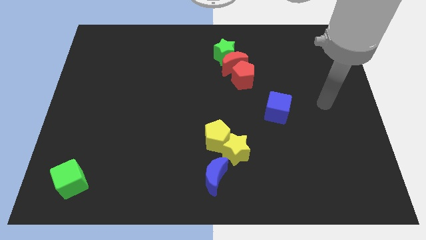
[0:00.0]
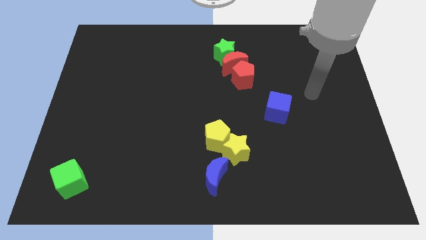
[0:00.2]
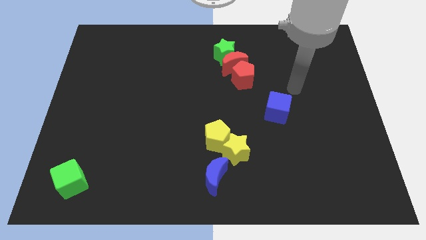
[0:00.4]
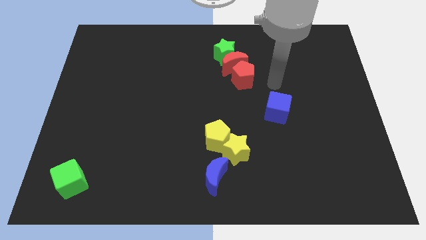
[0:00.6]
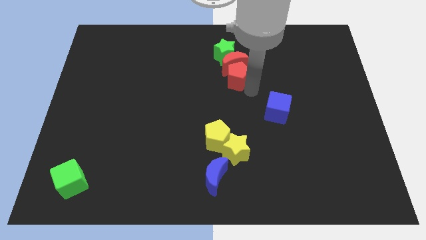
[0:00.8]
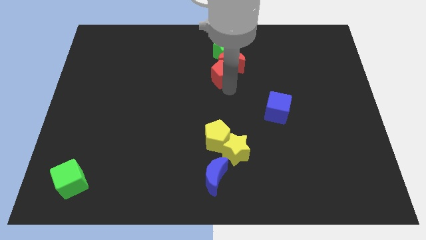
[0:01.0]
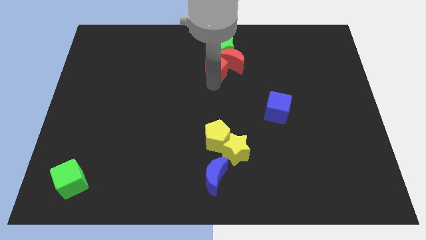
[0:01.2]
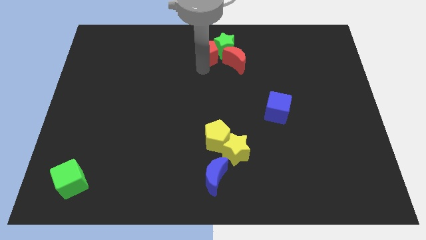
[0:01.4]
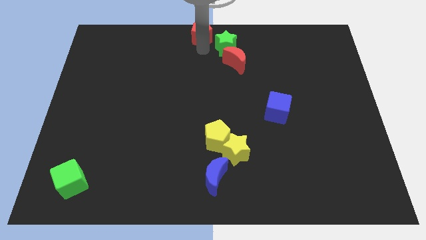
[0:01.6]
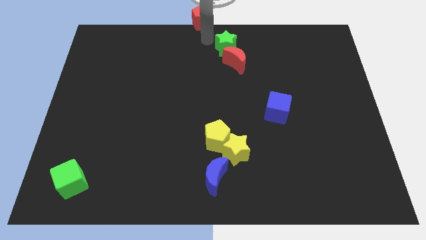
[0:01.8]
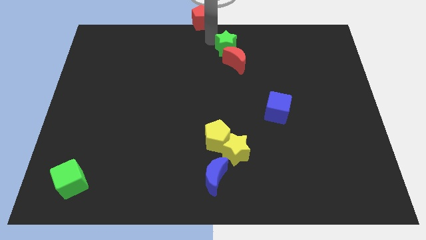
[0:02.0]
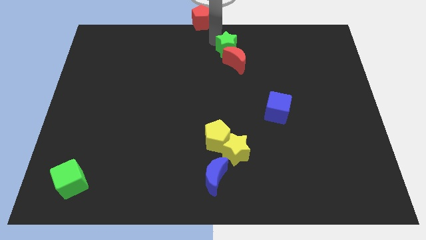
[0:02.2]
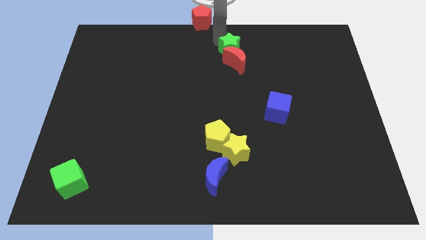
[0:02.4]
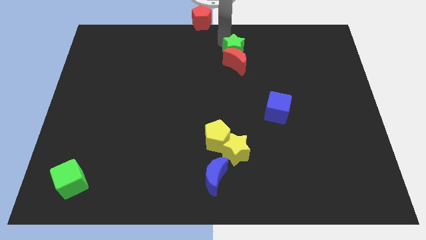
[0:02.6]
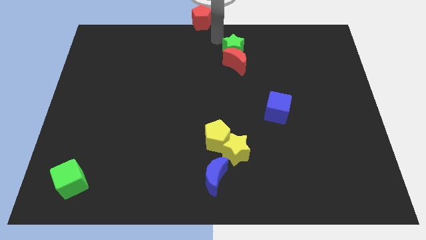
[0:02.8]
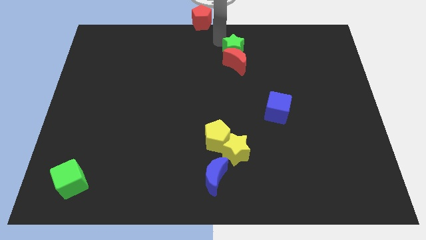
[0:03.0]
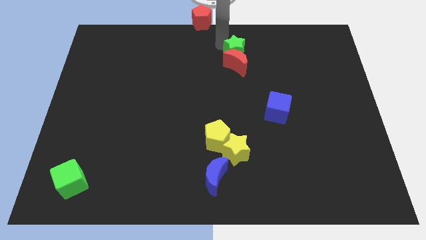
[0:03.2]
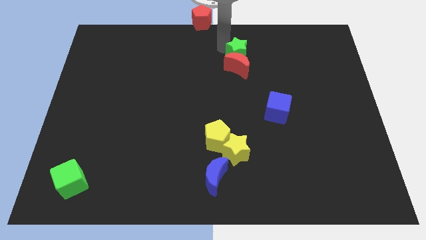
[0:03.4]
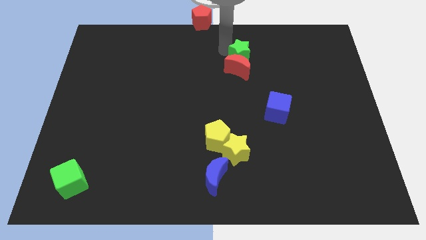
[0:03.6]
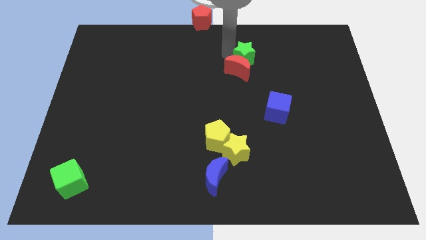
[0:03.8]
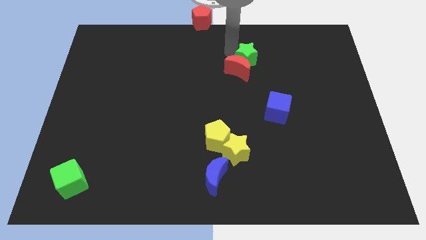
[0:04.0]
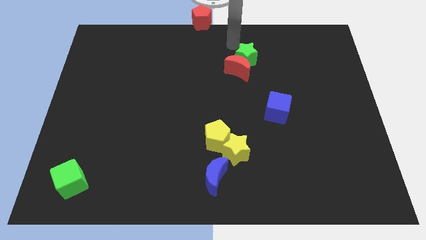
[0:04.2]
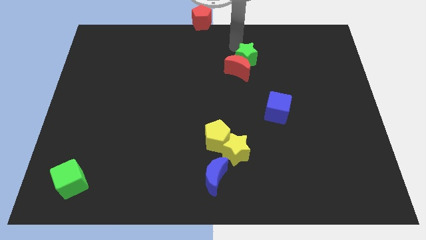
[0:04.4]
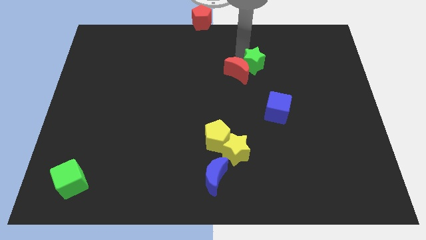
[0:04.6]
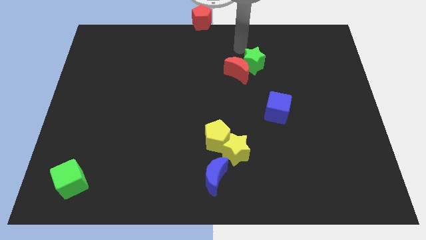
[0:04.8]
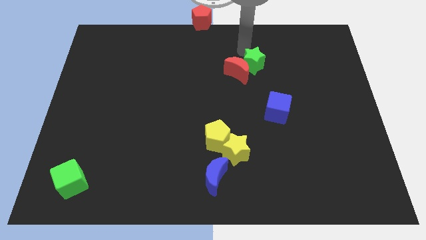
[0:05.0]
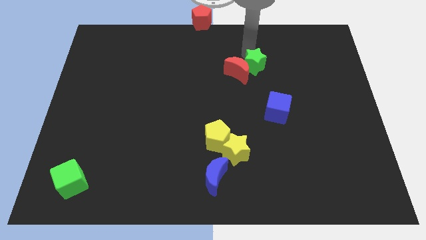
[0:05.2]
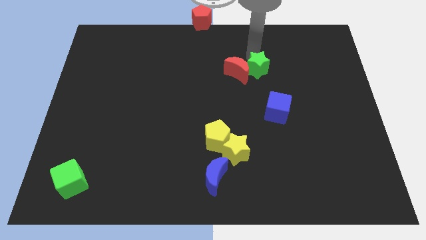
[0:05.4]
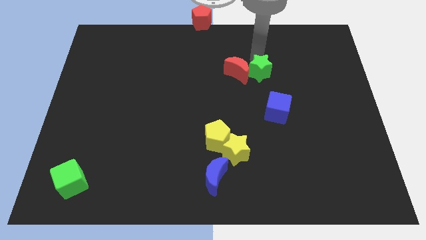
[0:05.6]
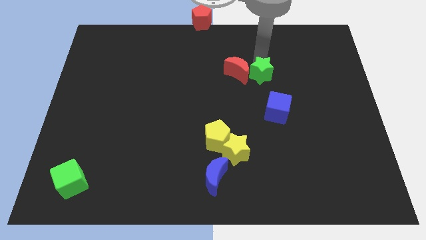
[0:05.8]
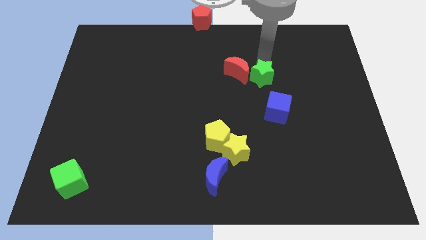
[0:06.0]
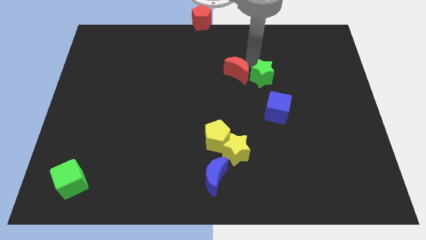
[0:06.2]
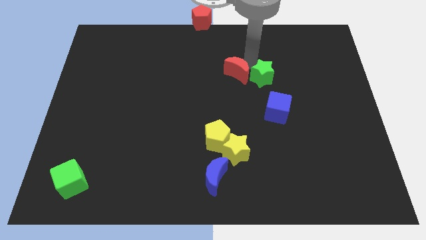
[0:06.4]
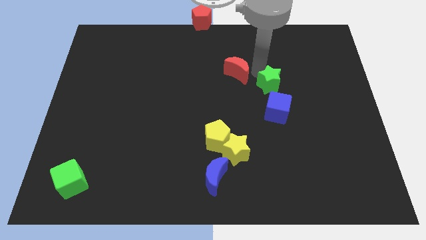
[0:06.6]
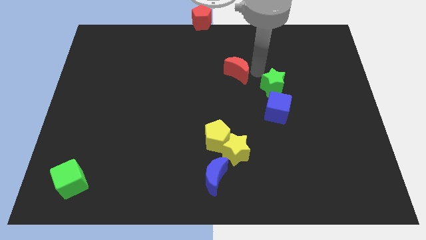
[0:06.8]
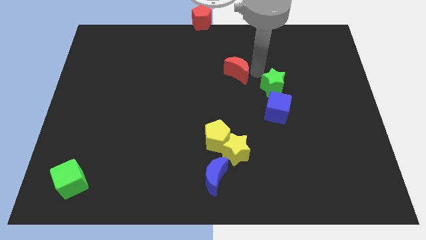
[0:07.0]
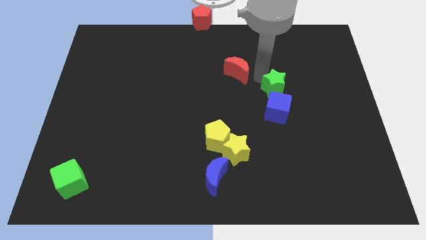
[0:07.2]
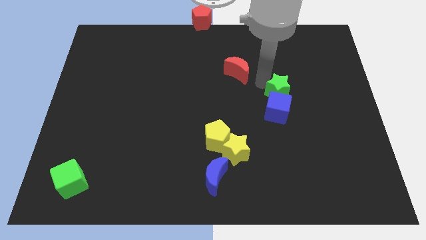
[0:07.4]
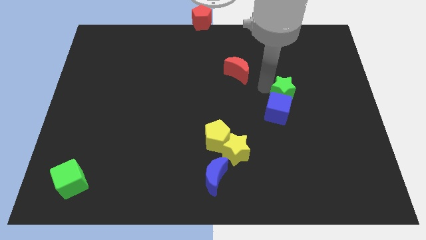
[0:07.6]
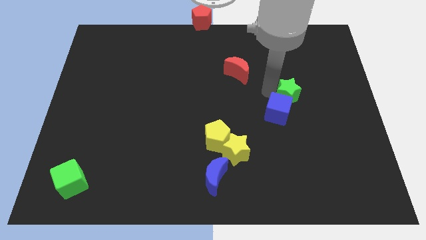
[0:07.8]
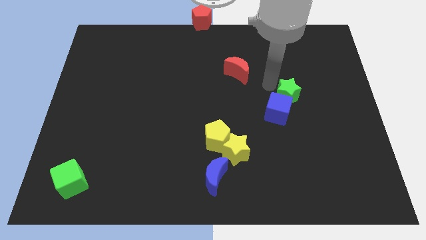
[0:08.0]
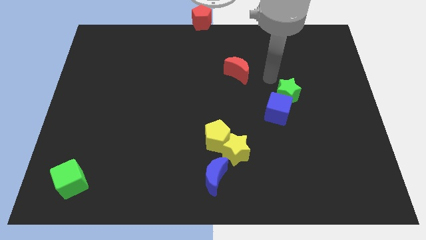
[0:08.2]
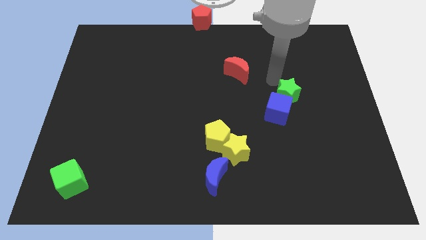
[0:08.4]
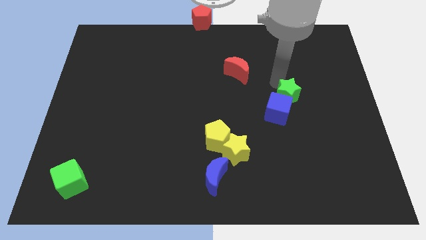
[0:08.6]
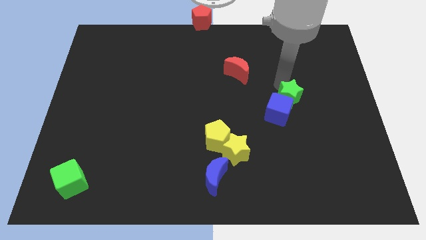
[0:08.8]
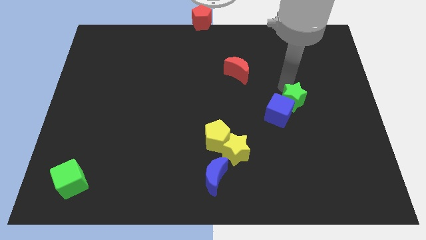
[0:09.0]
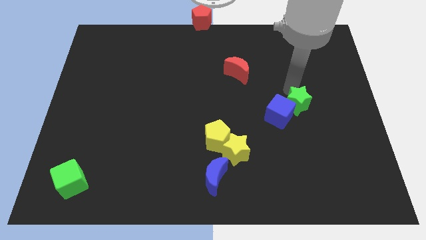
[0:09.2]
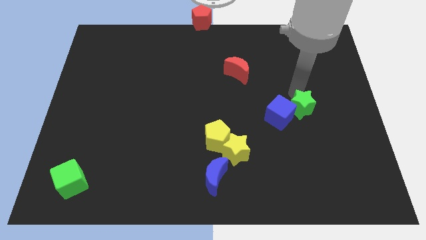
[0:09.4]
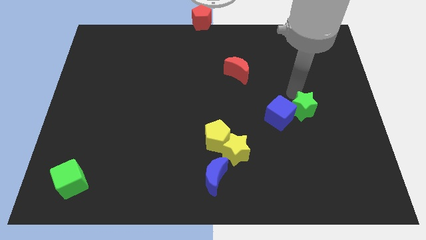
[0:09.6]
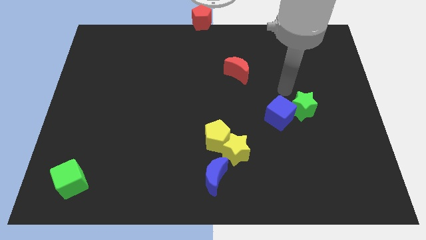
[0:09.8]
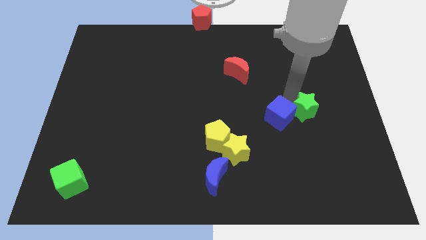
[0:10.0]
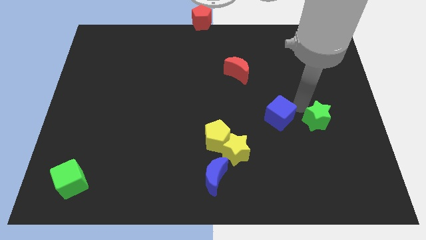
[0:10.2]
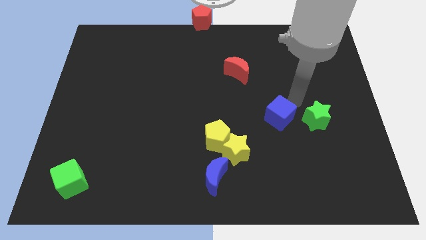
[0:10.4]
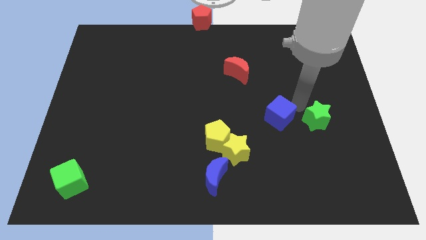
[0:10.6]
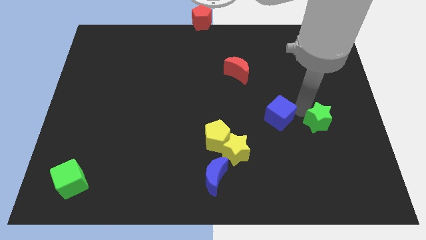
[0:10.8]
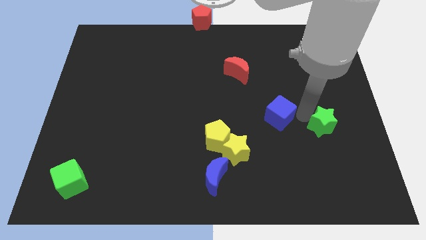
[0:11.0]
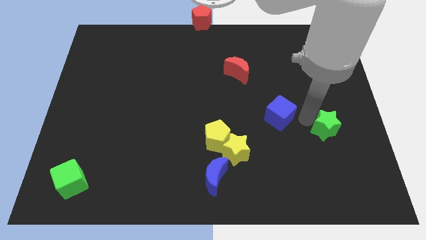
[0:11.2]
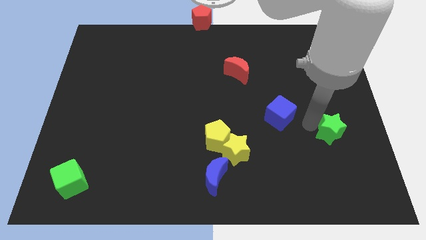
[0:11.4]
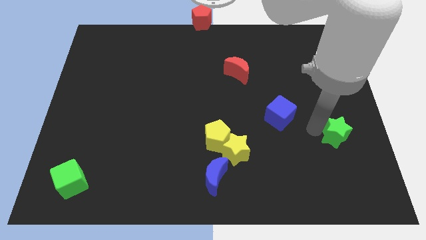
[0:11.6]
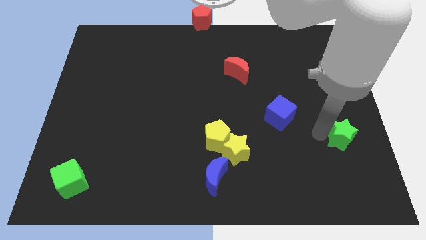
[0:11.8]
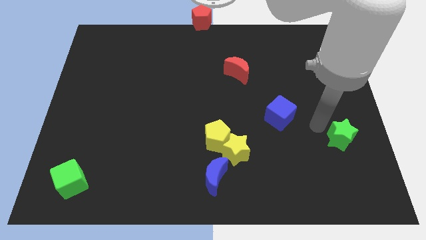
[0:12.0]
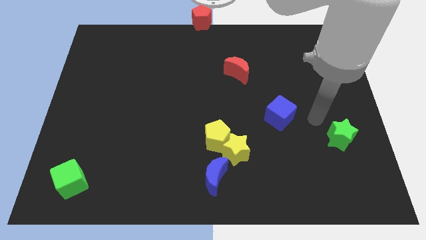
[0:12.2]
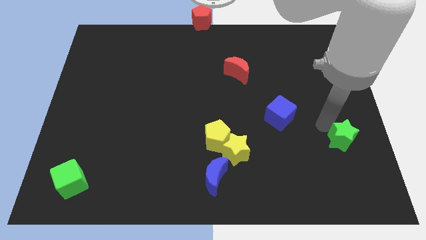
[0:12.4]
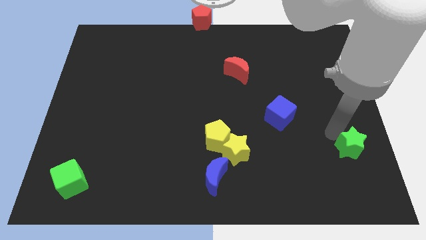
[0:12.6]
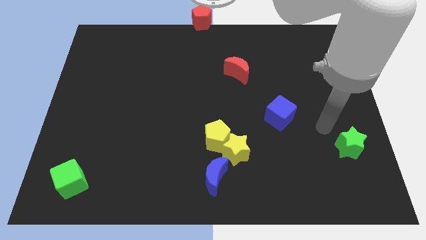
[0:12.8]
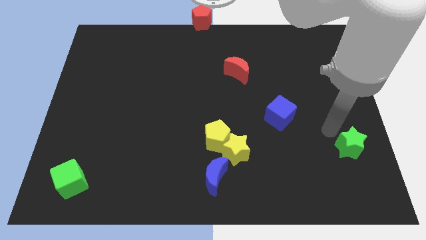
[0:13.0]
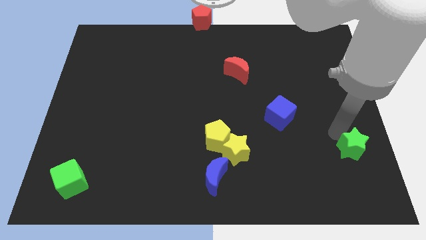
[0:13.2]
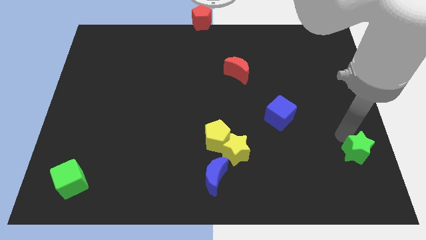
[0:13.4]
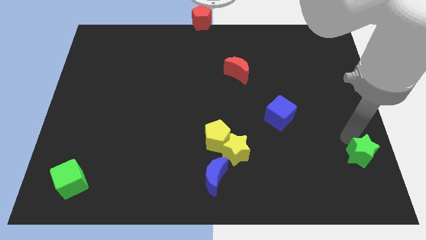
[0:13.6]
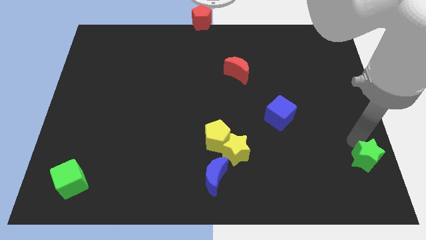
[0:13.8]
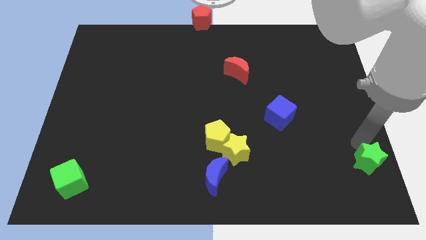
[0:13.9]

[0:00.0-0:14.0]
put the green star to the bottom right corner
